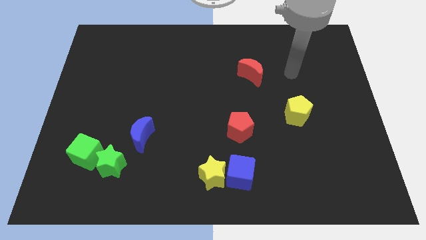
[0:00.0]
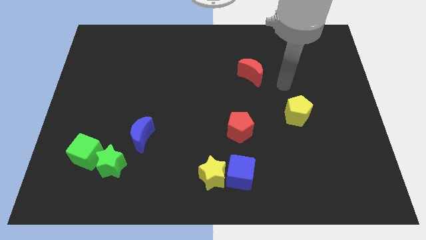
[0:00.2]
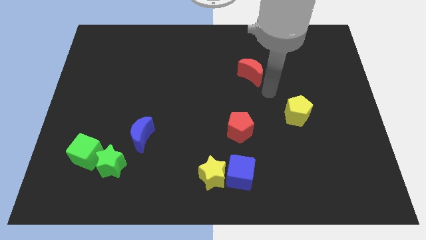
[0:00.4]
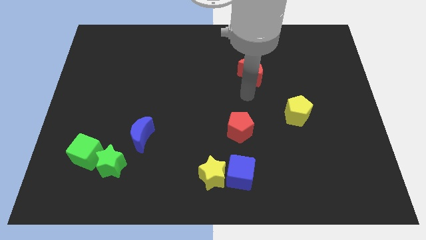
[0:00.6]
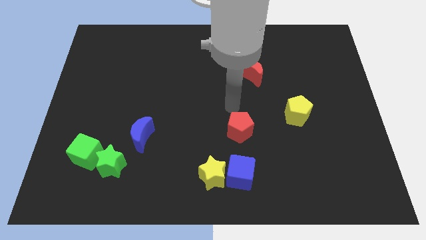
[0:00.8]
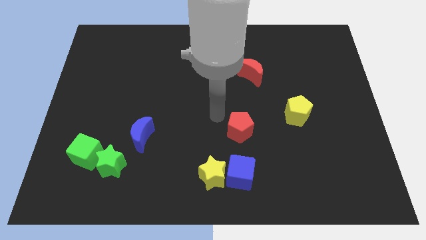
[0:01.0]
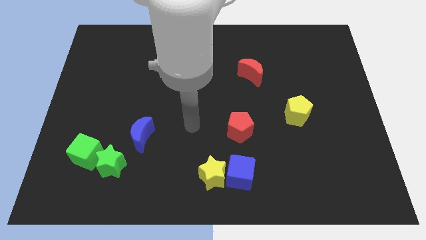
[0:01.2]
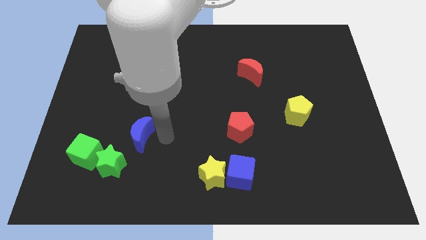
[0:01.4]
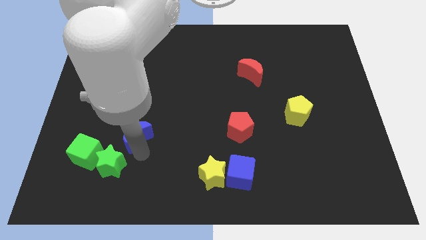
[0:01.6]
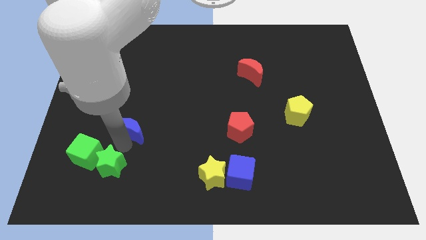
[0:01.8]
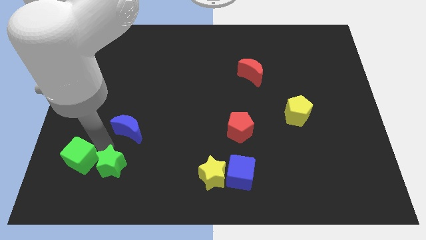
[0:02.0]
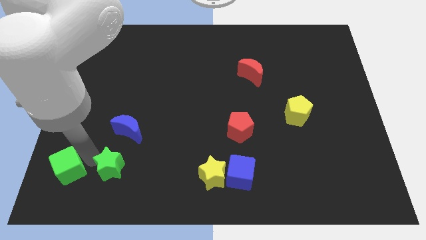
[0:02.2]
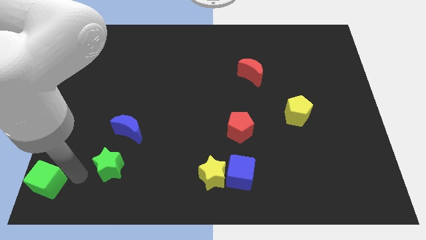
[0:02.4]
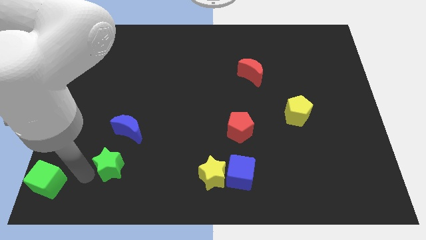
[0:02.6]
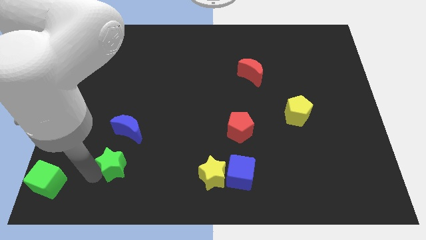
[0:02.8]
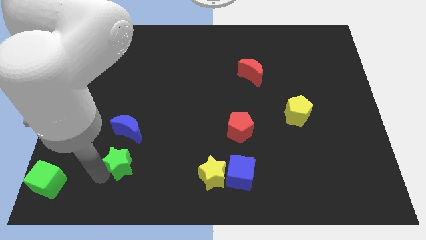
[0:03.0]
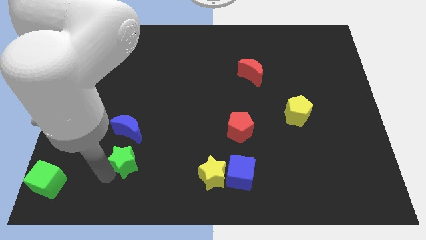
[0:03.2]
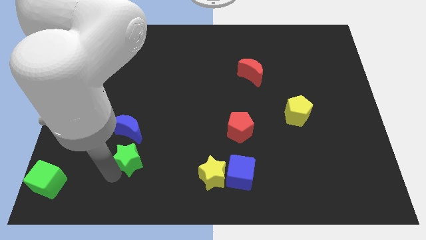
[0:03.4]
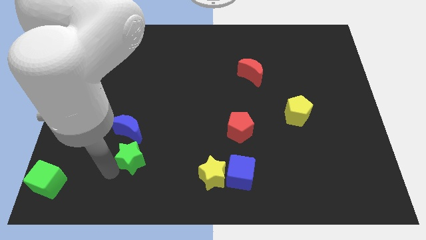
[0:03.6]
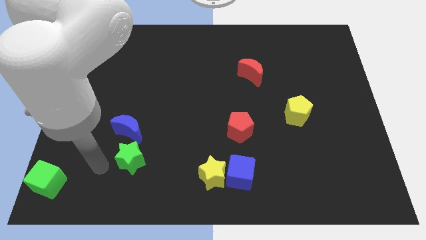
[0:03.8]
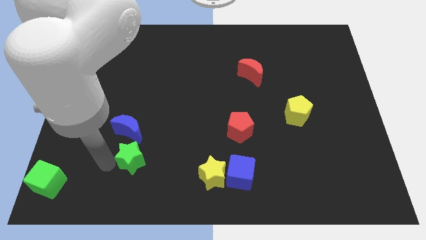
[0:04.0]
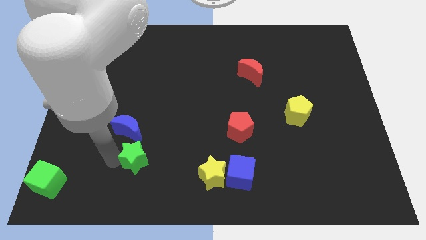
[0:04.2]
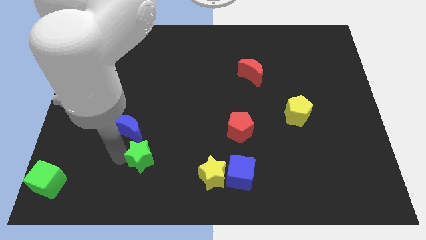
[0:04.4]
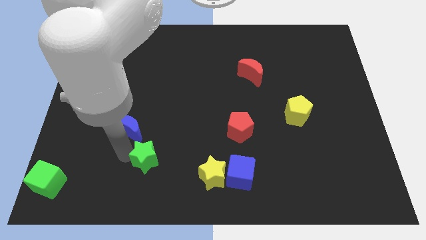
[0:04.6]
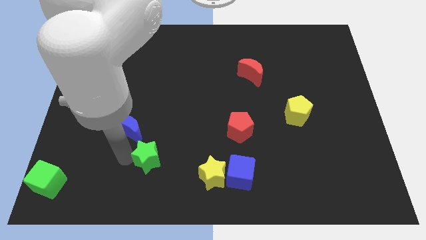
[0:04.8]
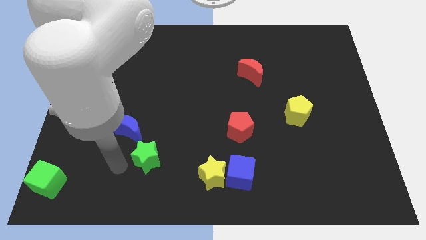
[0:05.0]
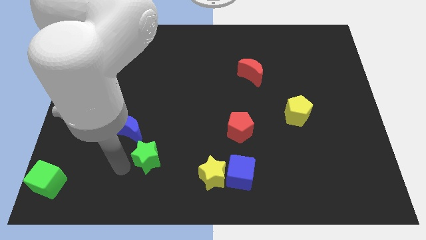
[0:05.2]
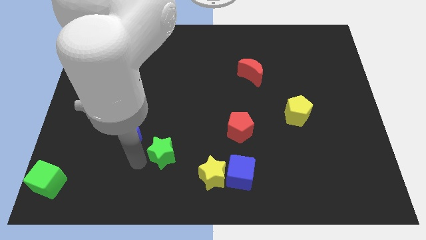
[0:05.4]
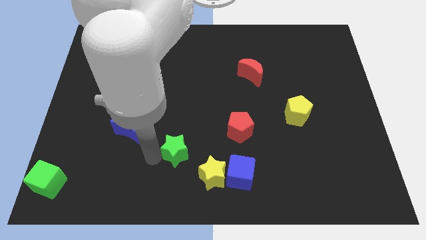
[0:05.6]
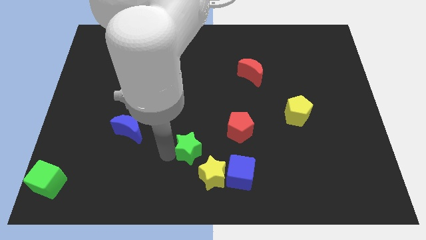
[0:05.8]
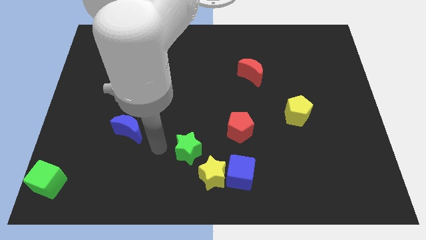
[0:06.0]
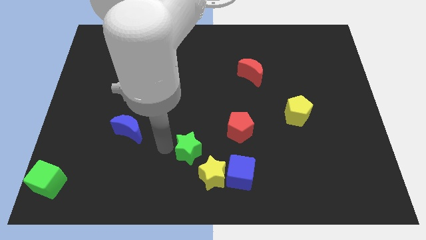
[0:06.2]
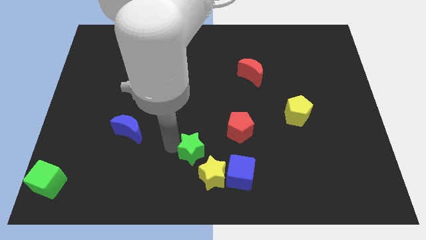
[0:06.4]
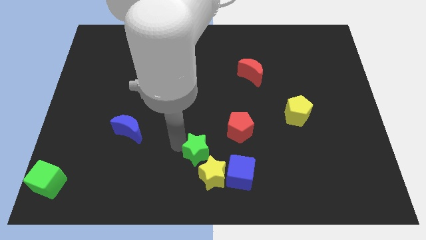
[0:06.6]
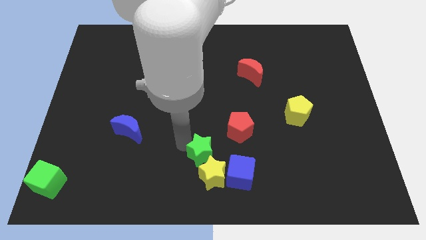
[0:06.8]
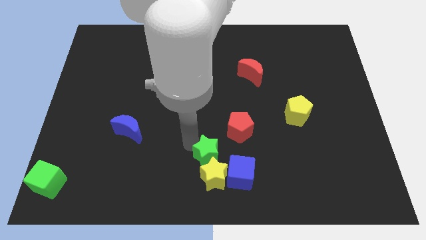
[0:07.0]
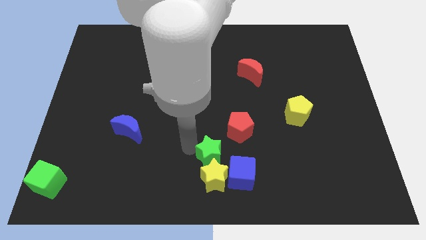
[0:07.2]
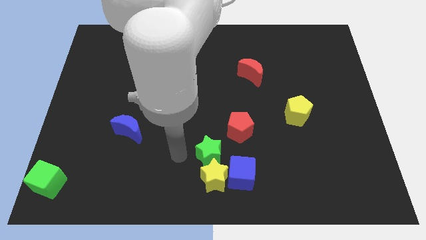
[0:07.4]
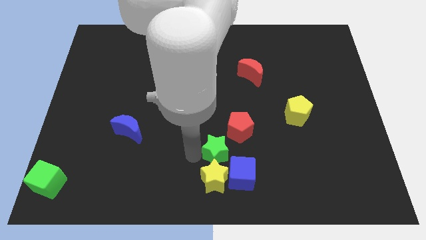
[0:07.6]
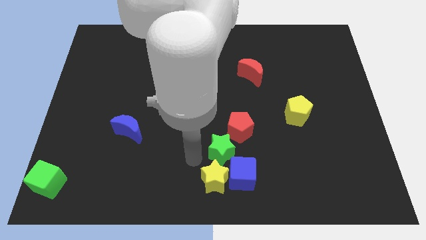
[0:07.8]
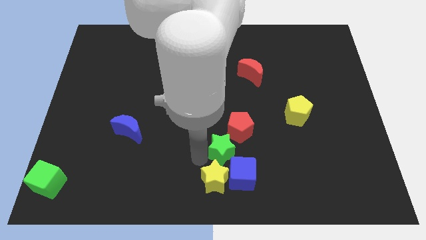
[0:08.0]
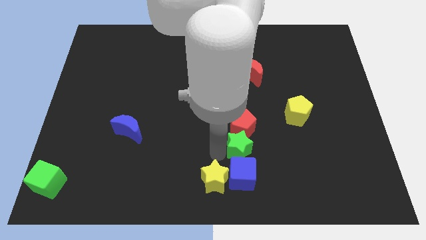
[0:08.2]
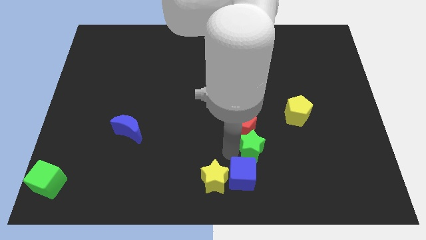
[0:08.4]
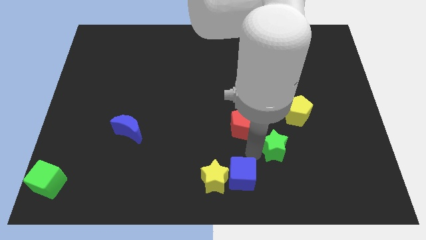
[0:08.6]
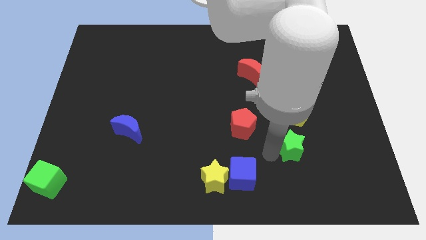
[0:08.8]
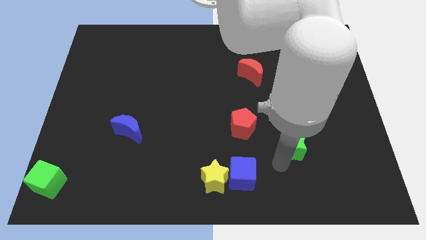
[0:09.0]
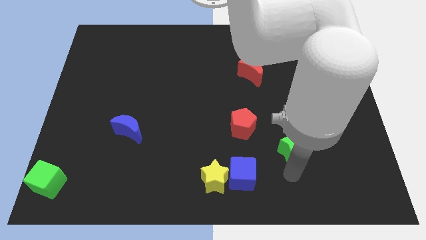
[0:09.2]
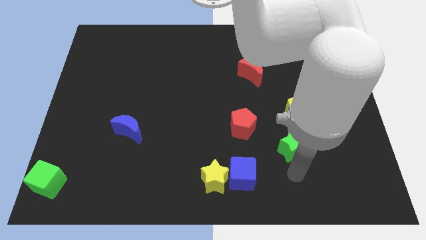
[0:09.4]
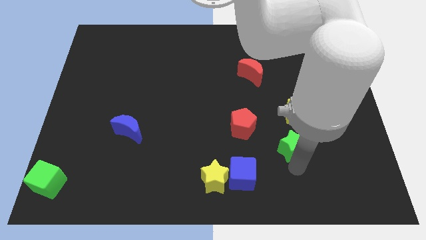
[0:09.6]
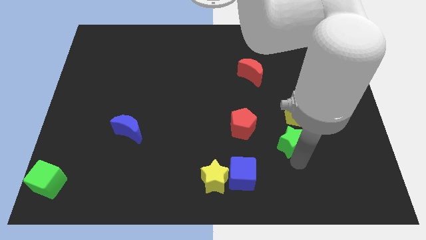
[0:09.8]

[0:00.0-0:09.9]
put the green star to the right of the red pentagon

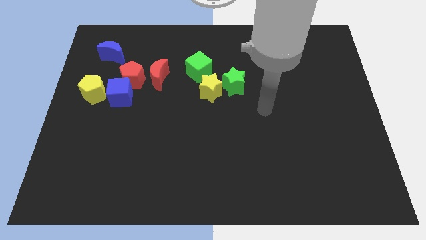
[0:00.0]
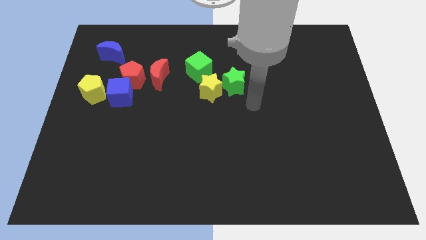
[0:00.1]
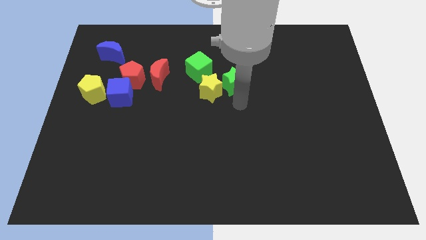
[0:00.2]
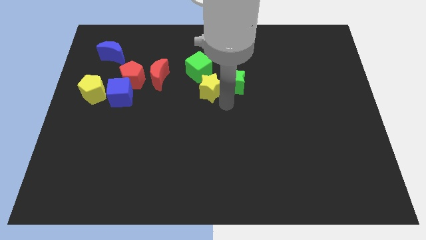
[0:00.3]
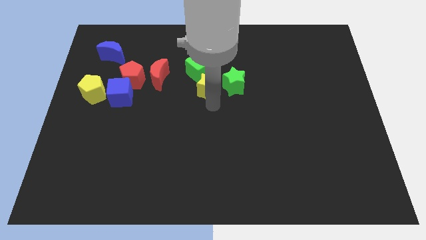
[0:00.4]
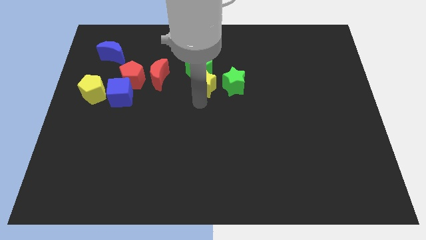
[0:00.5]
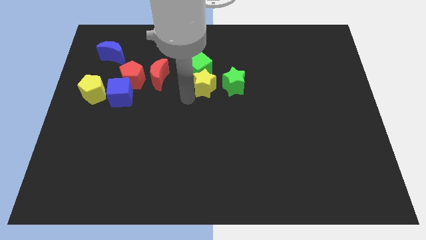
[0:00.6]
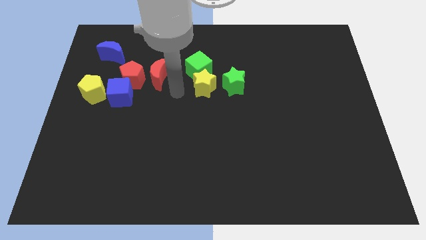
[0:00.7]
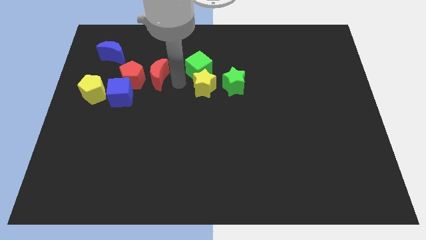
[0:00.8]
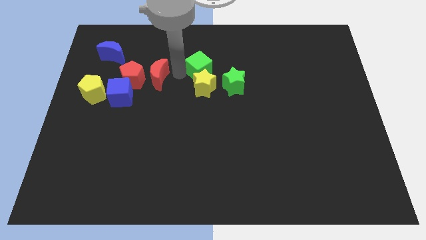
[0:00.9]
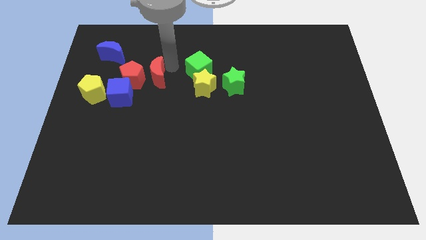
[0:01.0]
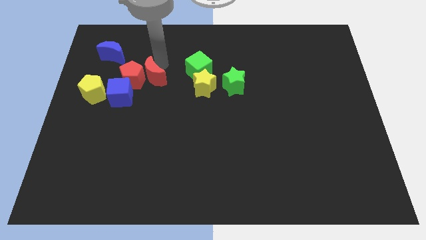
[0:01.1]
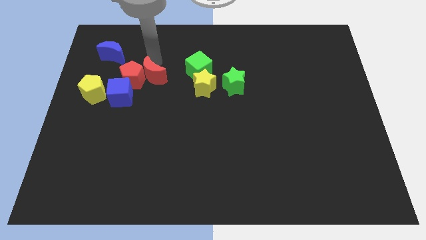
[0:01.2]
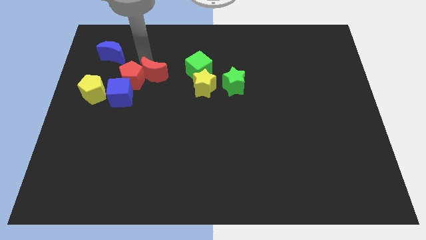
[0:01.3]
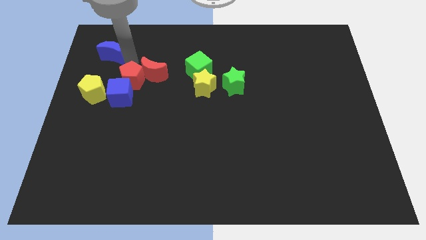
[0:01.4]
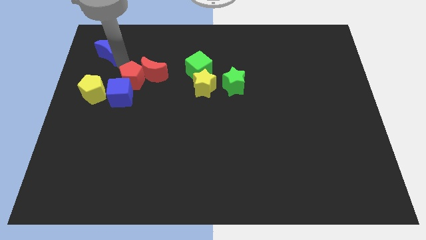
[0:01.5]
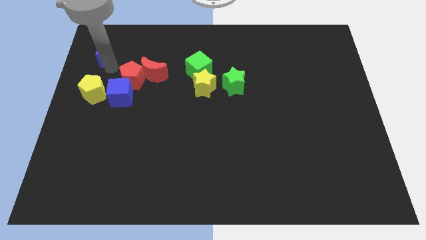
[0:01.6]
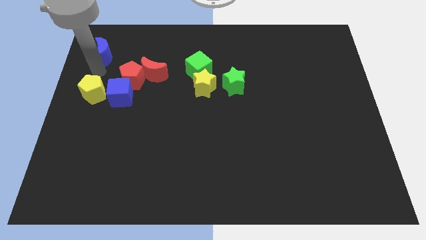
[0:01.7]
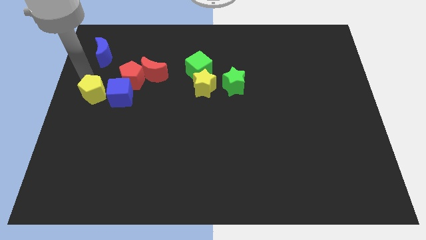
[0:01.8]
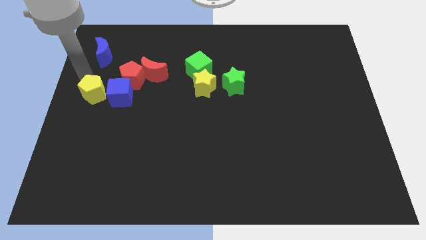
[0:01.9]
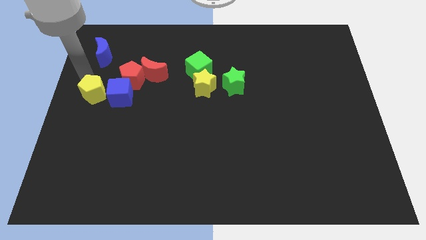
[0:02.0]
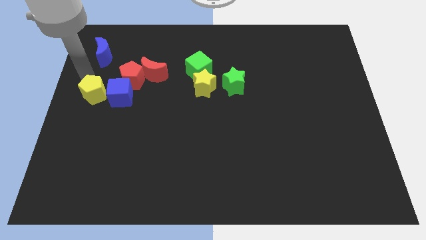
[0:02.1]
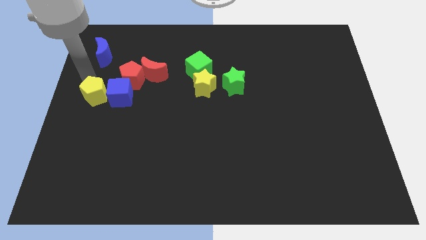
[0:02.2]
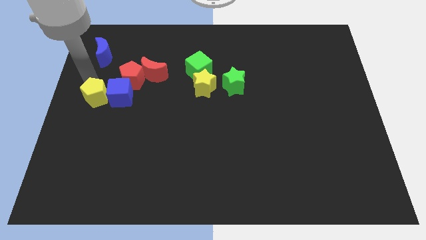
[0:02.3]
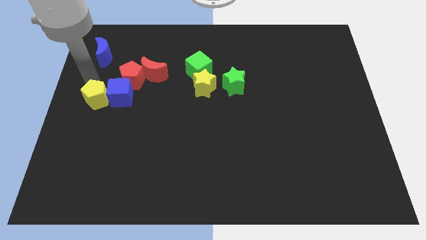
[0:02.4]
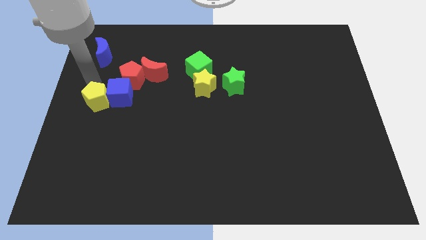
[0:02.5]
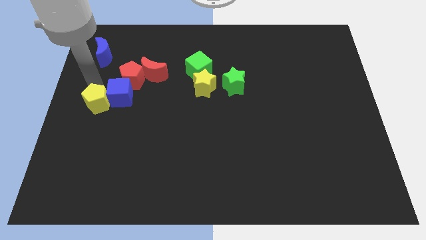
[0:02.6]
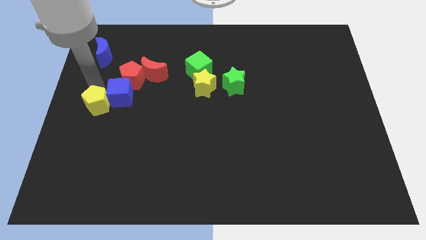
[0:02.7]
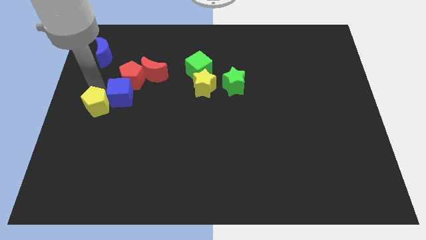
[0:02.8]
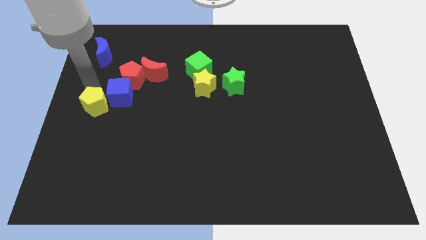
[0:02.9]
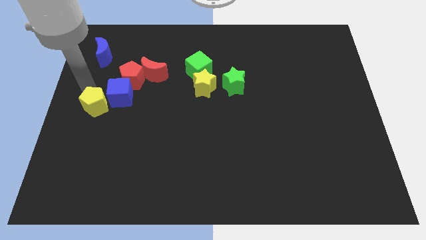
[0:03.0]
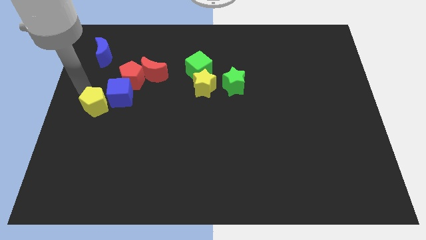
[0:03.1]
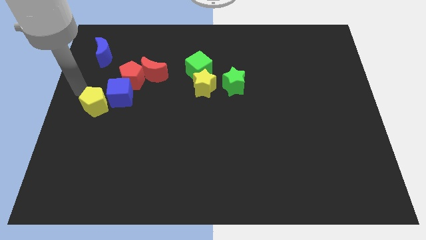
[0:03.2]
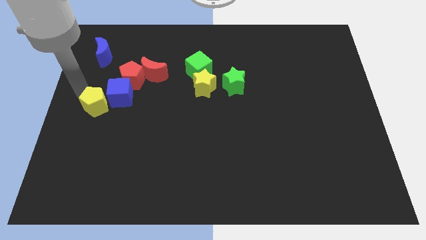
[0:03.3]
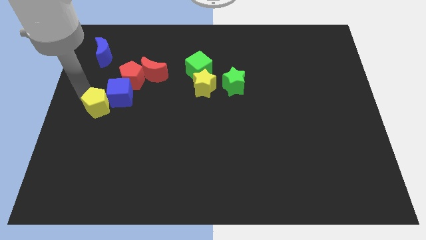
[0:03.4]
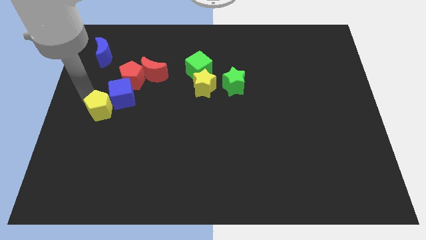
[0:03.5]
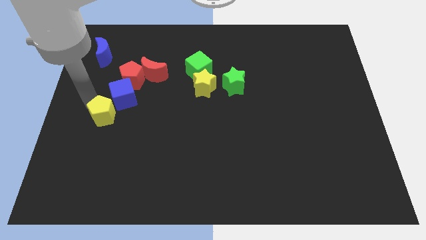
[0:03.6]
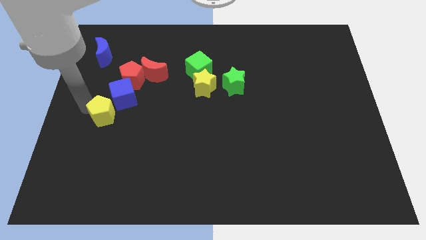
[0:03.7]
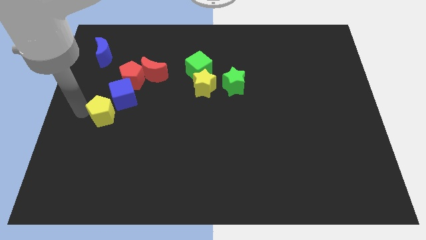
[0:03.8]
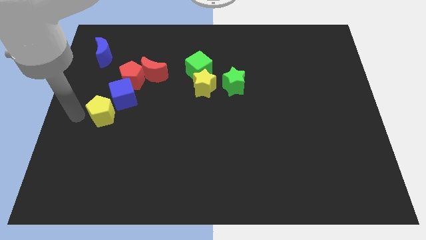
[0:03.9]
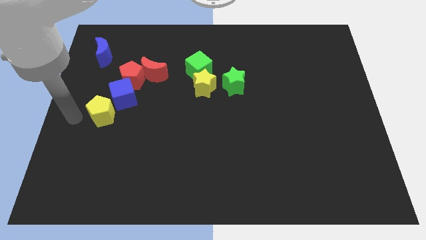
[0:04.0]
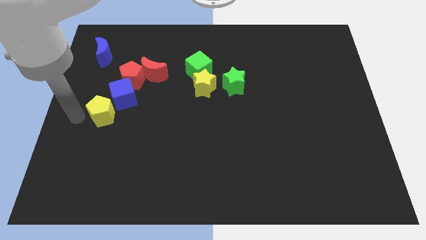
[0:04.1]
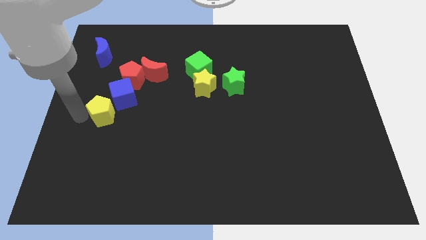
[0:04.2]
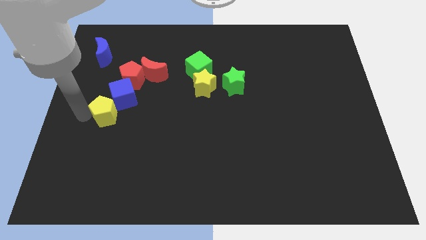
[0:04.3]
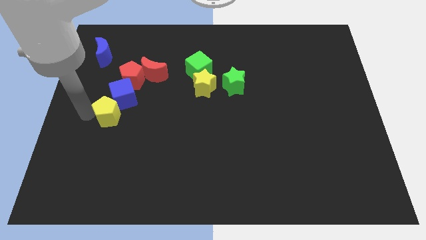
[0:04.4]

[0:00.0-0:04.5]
slide the yellow pentagon to the bottom of the red pentagon
